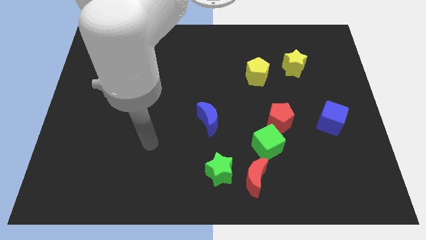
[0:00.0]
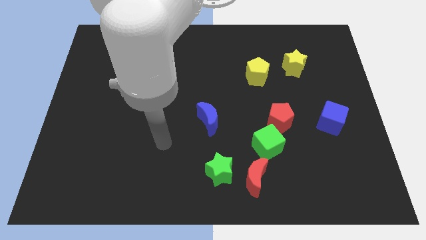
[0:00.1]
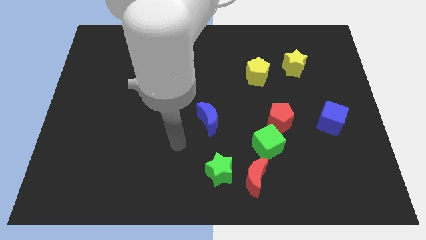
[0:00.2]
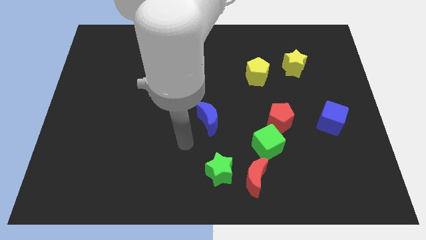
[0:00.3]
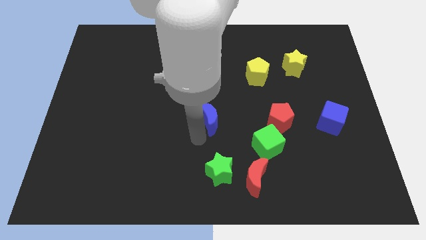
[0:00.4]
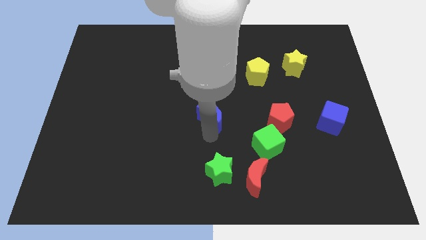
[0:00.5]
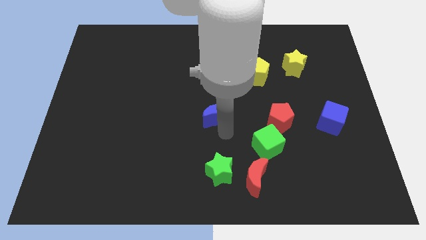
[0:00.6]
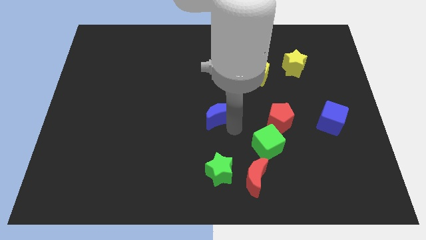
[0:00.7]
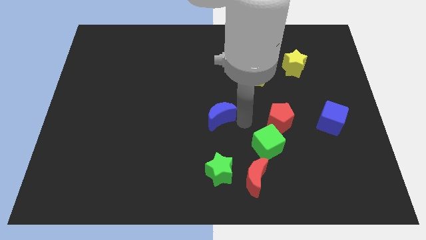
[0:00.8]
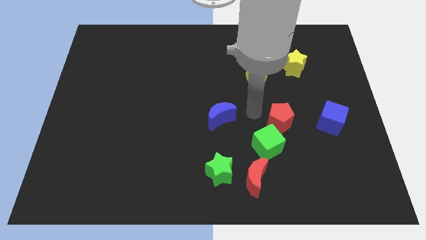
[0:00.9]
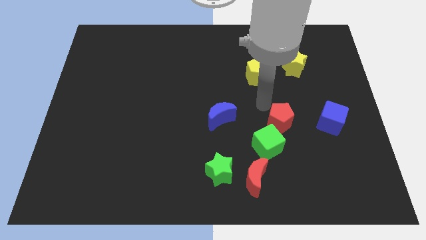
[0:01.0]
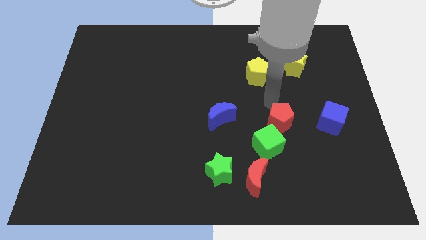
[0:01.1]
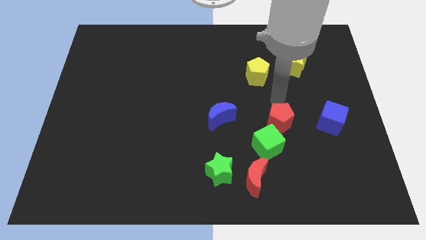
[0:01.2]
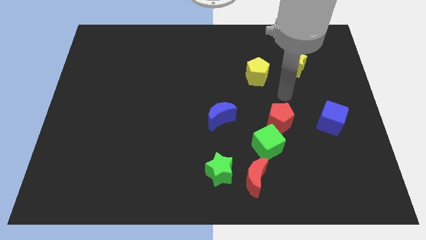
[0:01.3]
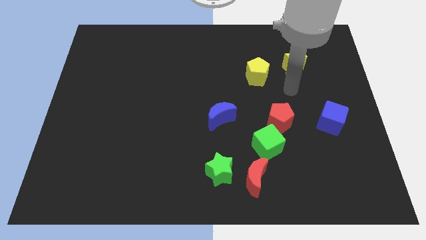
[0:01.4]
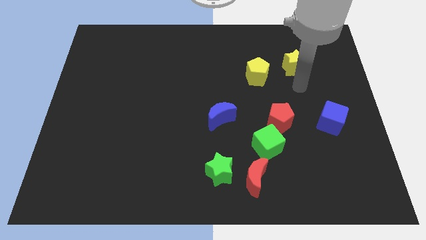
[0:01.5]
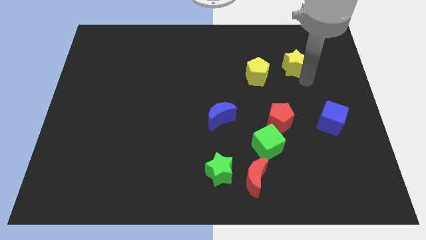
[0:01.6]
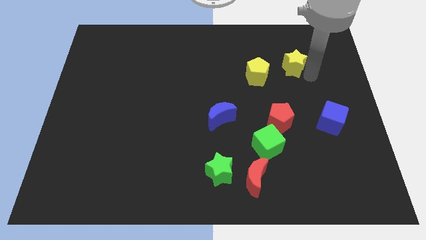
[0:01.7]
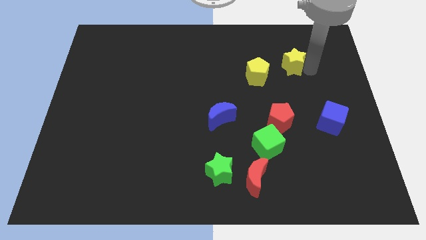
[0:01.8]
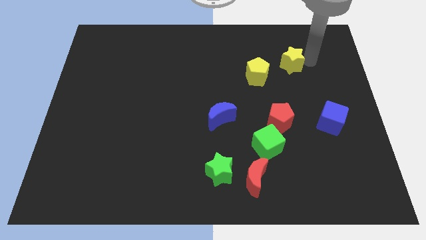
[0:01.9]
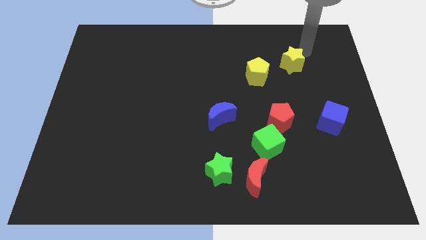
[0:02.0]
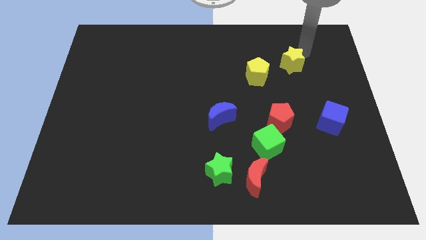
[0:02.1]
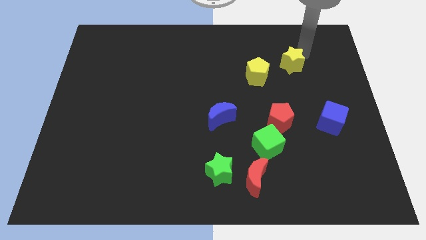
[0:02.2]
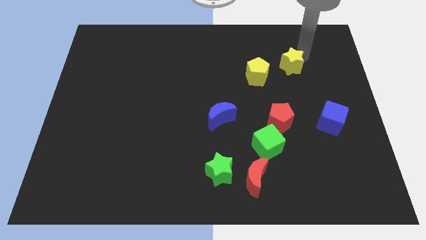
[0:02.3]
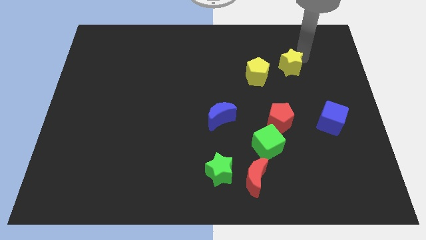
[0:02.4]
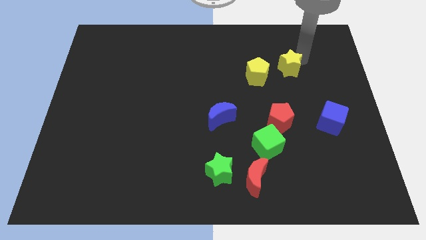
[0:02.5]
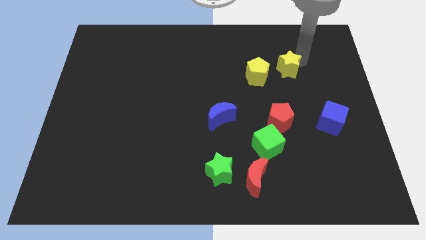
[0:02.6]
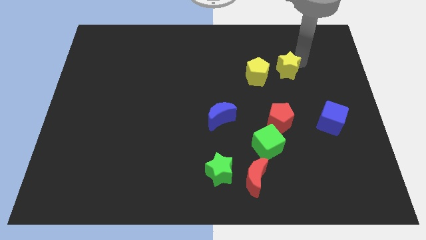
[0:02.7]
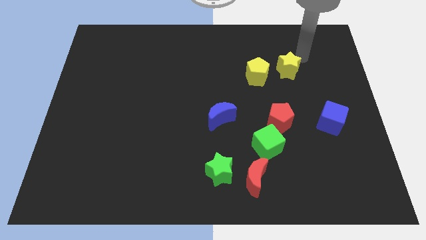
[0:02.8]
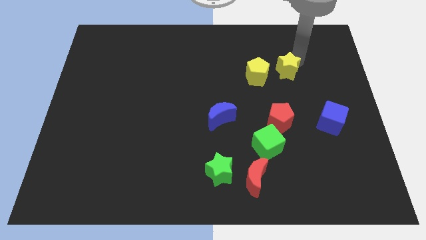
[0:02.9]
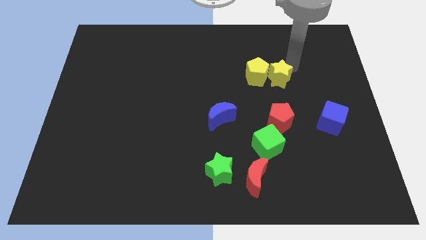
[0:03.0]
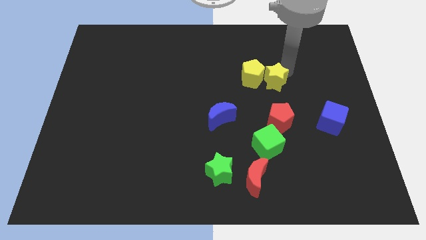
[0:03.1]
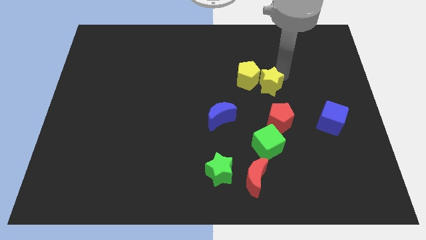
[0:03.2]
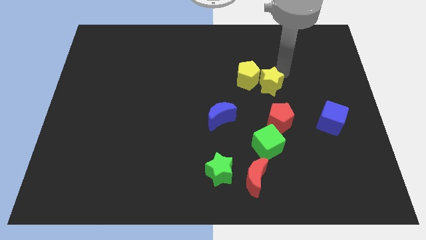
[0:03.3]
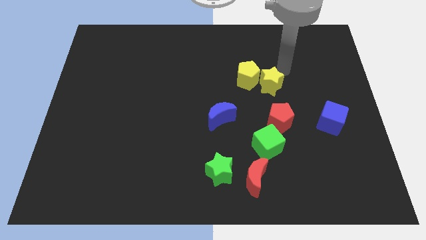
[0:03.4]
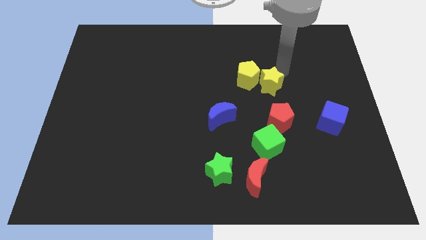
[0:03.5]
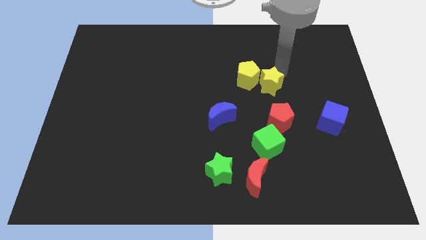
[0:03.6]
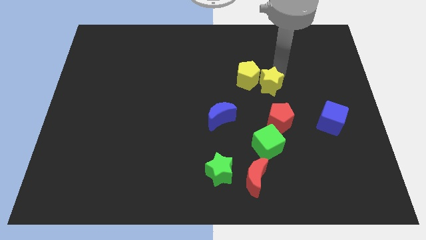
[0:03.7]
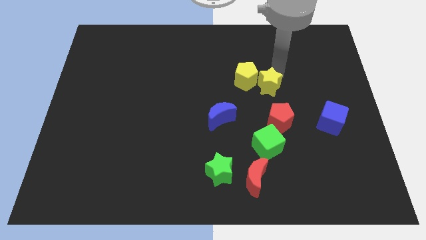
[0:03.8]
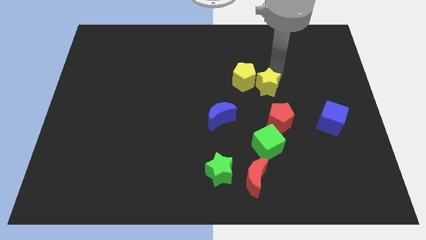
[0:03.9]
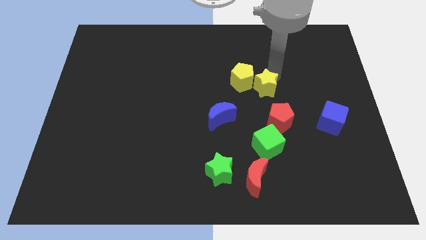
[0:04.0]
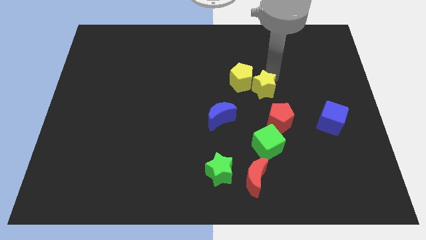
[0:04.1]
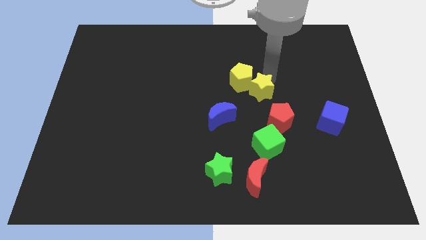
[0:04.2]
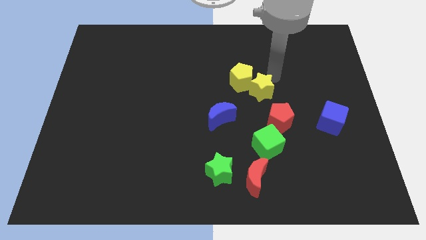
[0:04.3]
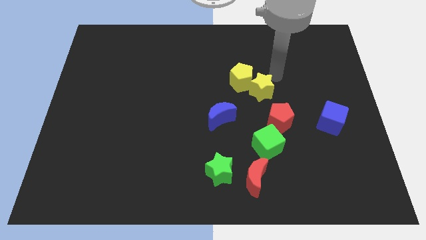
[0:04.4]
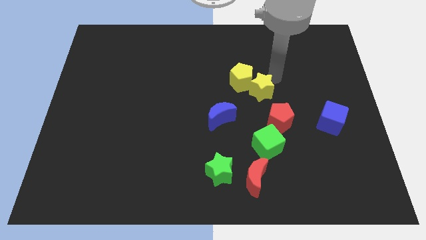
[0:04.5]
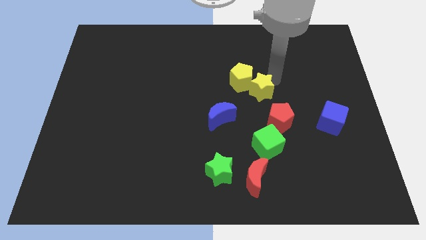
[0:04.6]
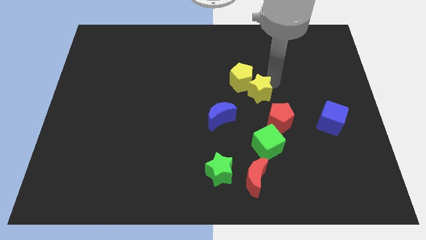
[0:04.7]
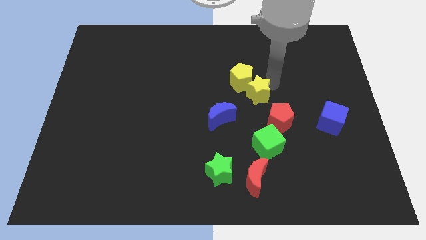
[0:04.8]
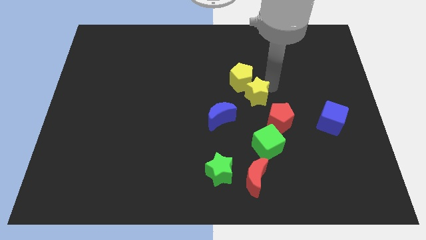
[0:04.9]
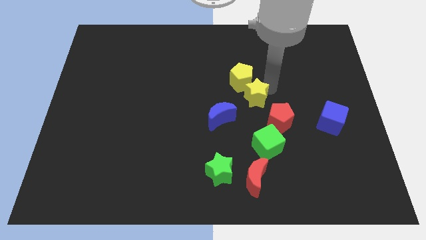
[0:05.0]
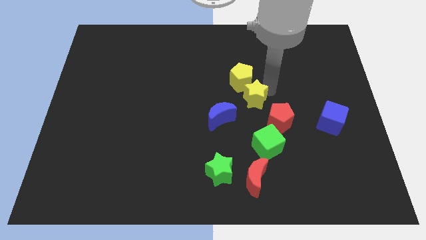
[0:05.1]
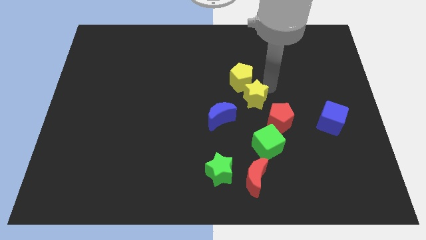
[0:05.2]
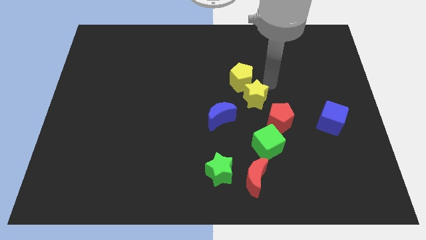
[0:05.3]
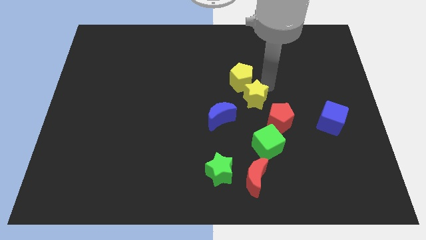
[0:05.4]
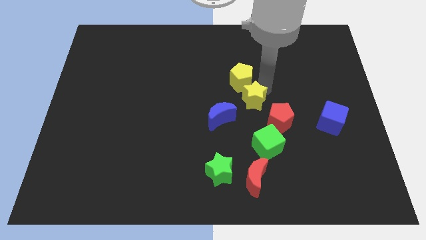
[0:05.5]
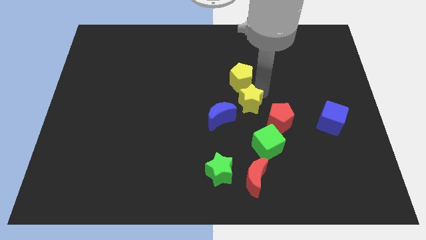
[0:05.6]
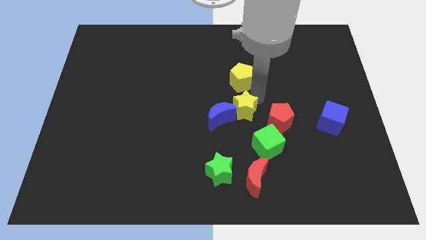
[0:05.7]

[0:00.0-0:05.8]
move the yellow star close to the blue moon

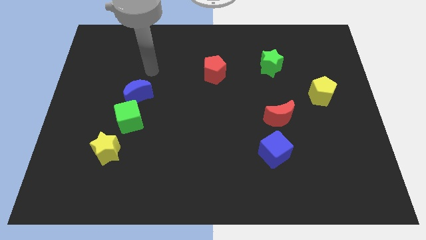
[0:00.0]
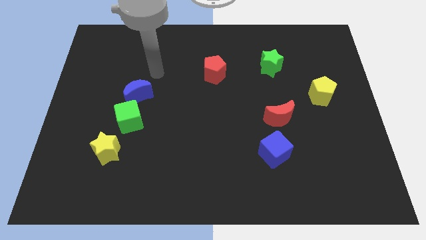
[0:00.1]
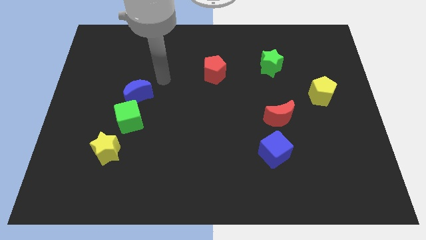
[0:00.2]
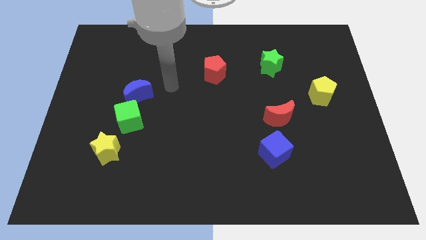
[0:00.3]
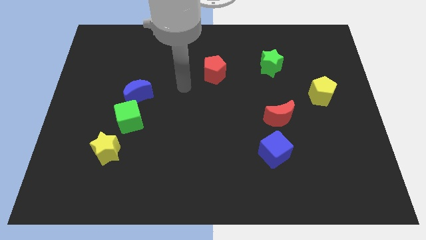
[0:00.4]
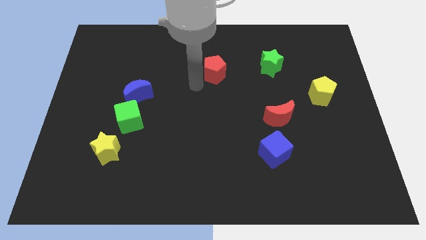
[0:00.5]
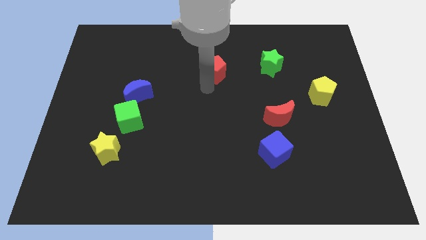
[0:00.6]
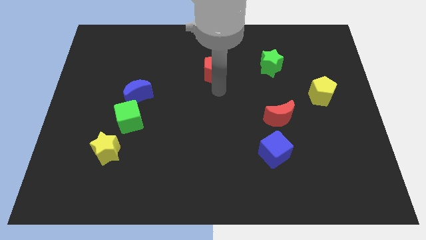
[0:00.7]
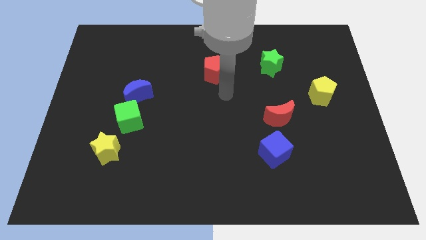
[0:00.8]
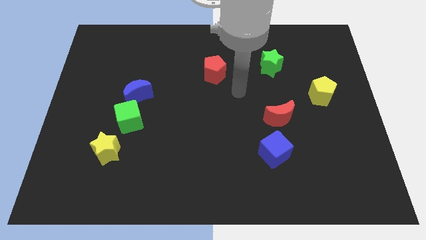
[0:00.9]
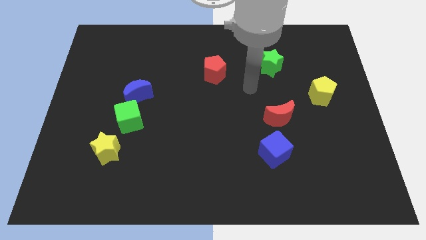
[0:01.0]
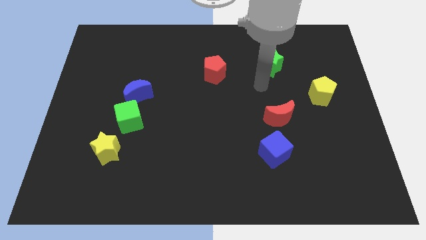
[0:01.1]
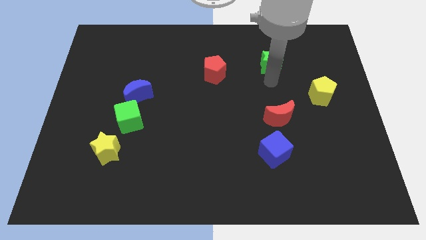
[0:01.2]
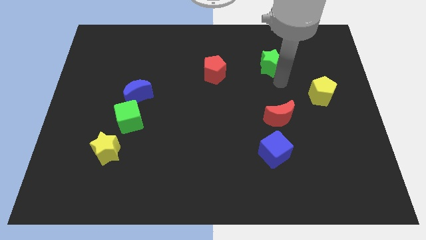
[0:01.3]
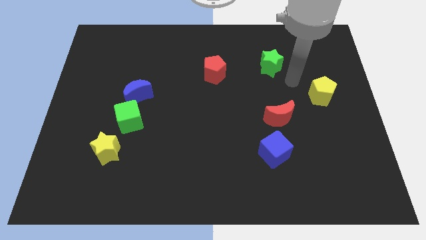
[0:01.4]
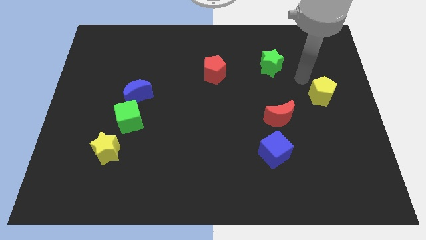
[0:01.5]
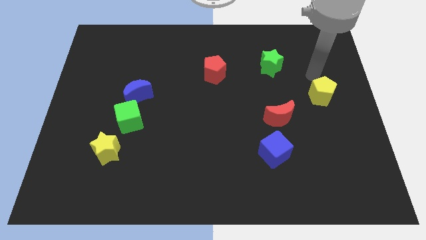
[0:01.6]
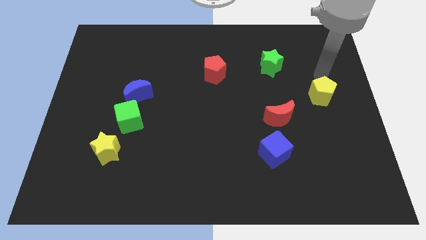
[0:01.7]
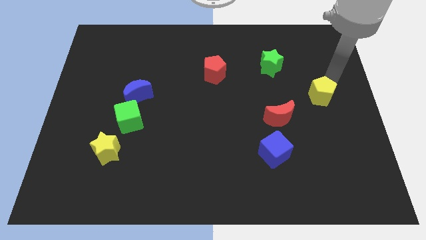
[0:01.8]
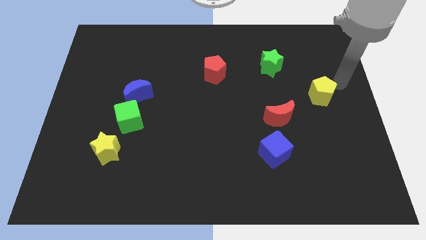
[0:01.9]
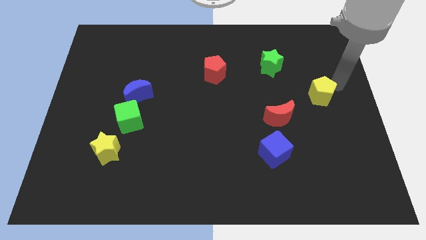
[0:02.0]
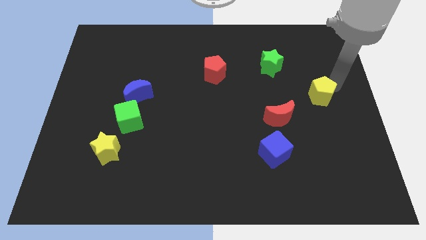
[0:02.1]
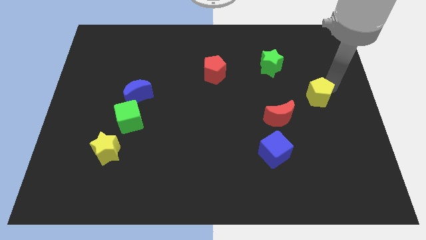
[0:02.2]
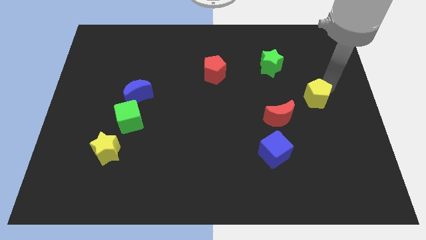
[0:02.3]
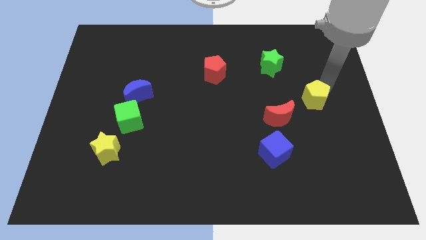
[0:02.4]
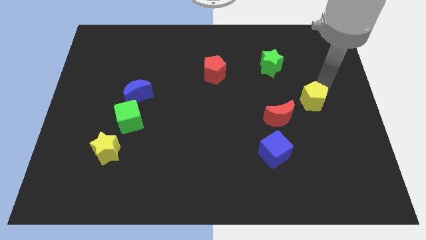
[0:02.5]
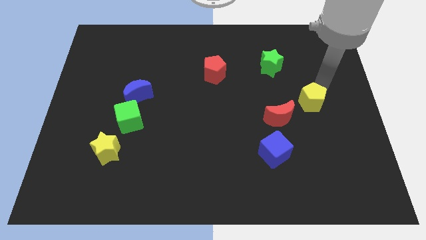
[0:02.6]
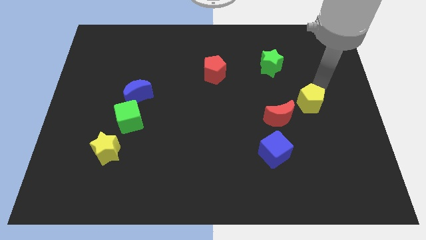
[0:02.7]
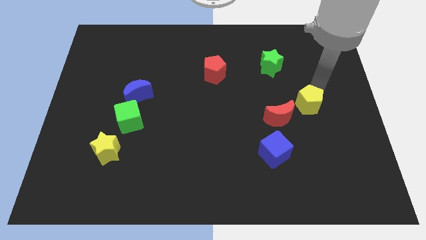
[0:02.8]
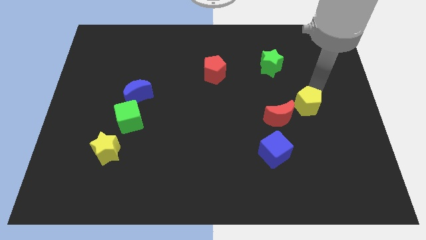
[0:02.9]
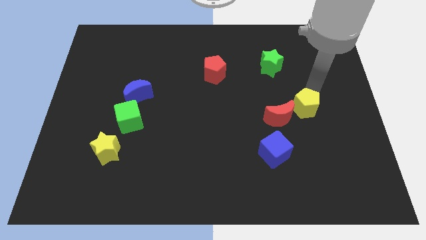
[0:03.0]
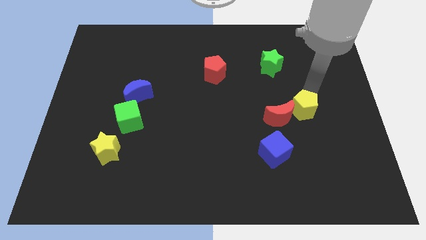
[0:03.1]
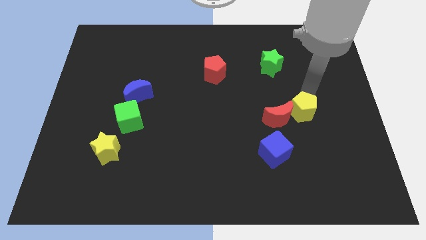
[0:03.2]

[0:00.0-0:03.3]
put the yellow pentagon to the red moon
